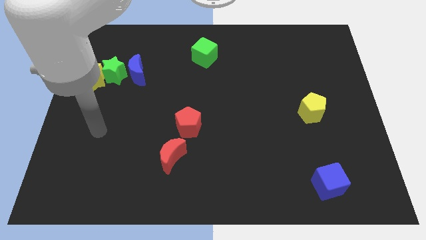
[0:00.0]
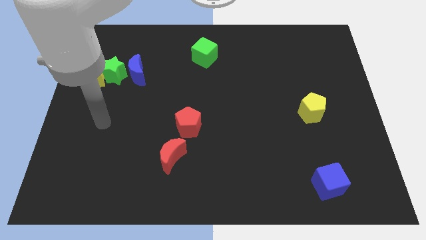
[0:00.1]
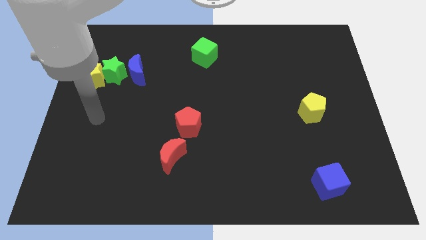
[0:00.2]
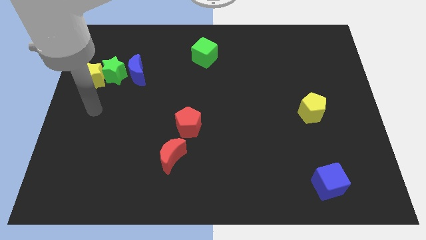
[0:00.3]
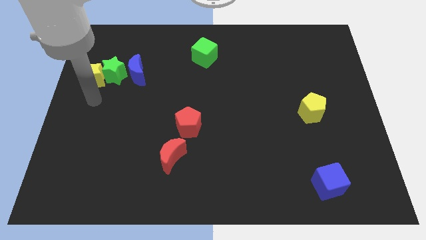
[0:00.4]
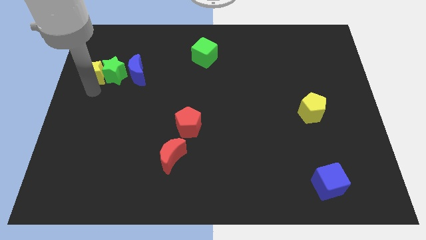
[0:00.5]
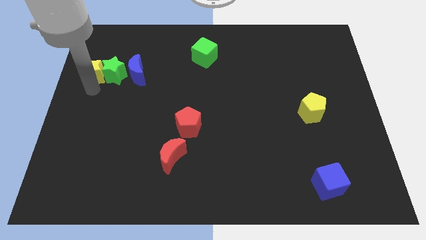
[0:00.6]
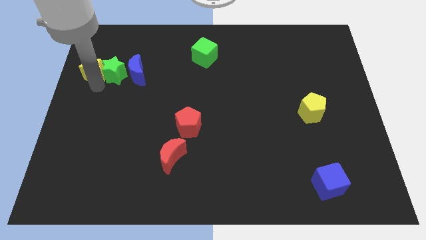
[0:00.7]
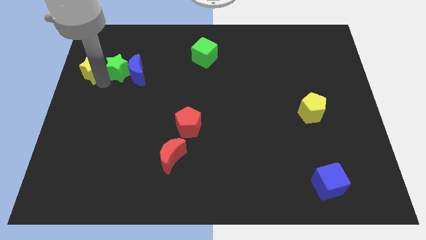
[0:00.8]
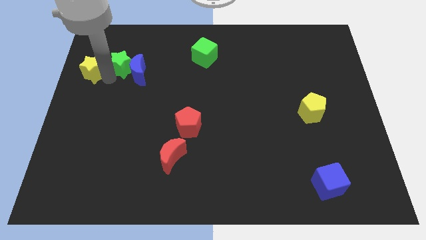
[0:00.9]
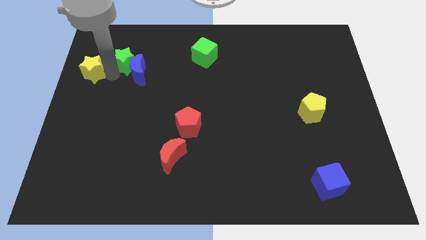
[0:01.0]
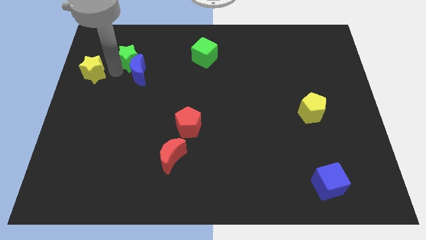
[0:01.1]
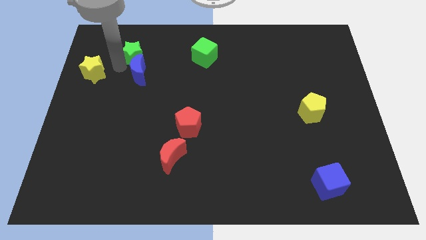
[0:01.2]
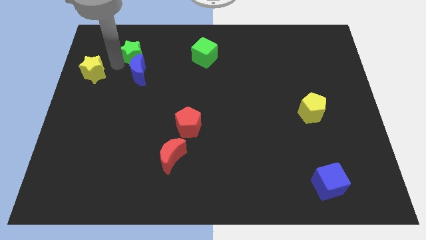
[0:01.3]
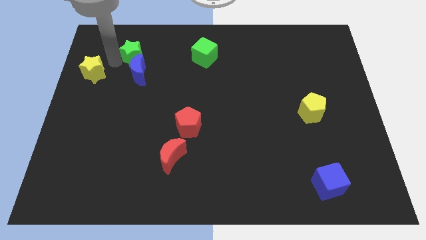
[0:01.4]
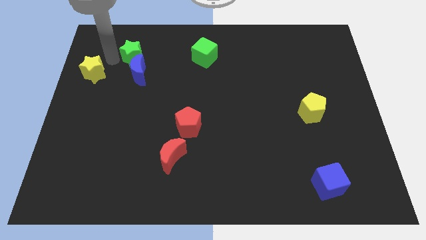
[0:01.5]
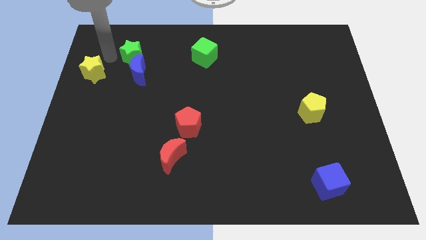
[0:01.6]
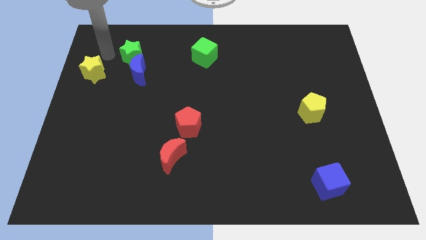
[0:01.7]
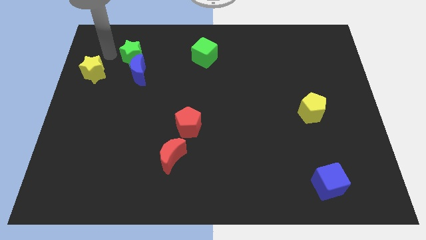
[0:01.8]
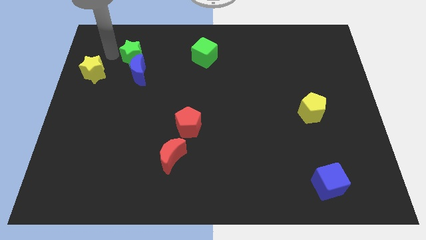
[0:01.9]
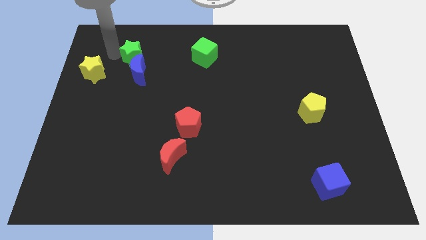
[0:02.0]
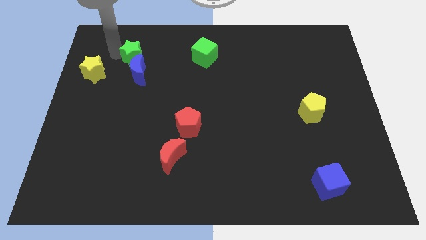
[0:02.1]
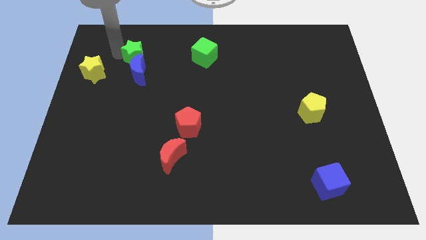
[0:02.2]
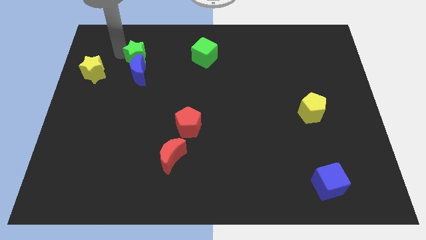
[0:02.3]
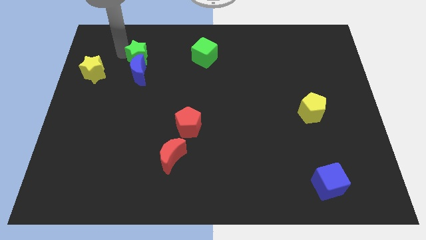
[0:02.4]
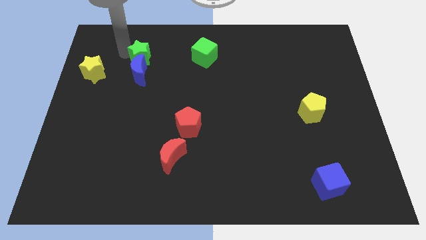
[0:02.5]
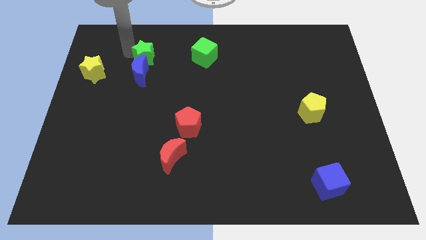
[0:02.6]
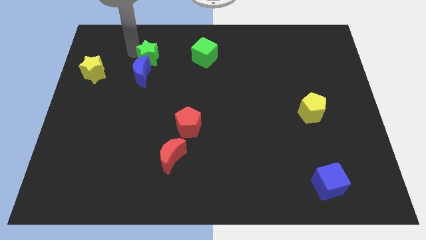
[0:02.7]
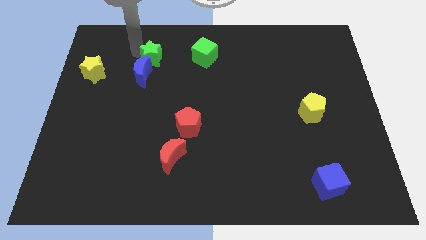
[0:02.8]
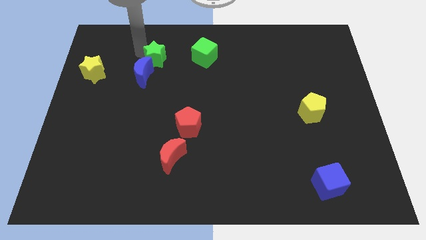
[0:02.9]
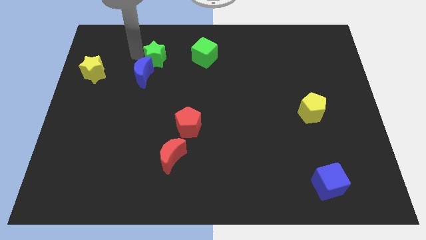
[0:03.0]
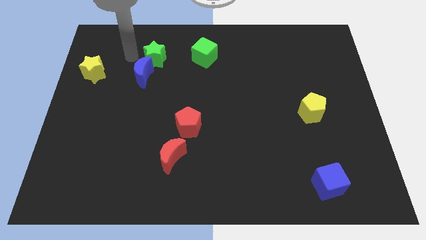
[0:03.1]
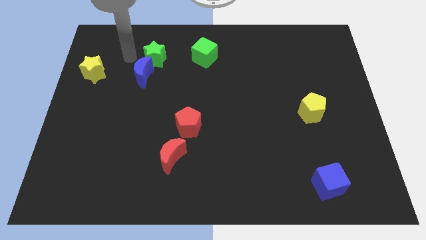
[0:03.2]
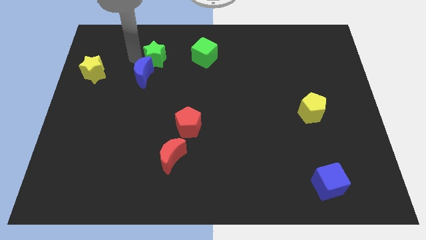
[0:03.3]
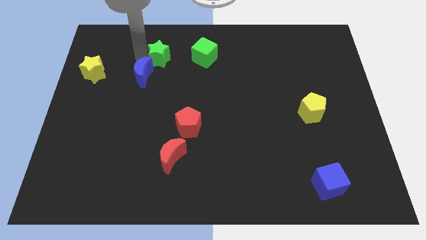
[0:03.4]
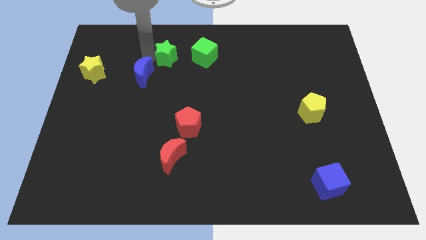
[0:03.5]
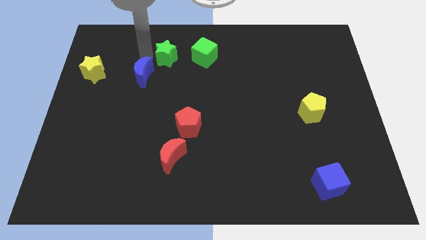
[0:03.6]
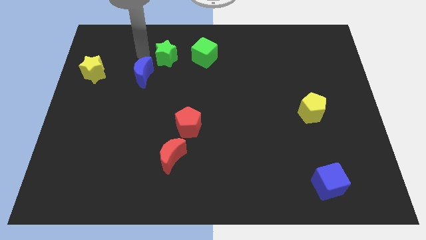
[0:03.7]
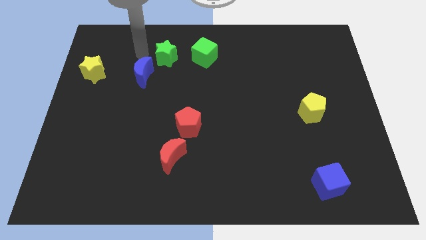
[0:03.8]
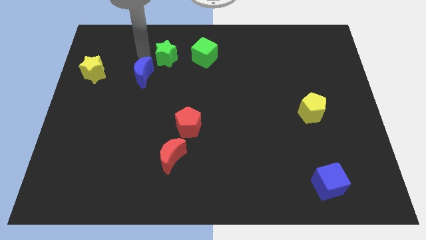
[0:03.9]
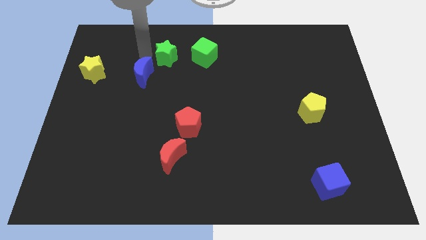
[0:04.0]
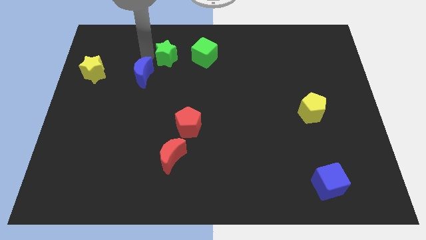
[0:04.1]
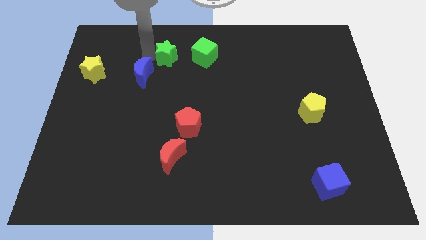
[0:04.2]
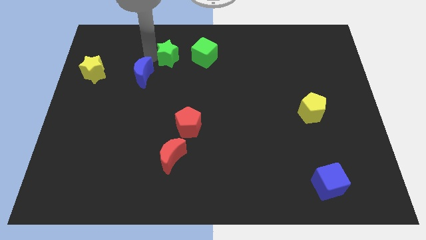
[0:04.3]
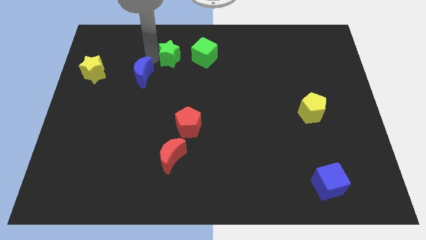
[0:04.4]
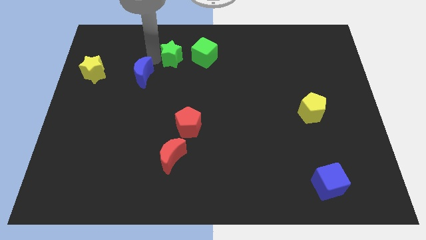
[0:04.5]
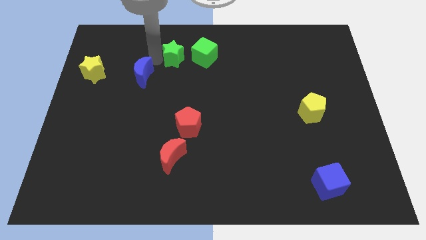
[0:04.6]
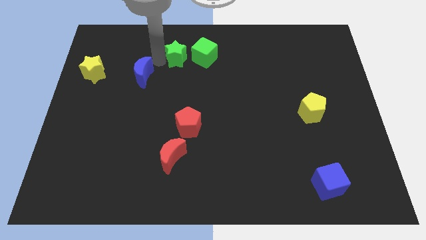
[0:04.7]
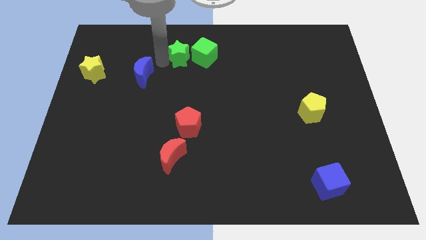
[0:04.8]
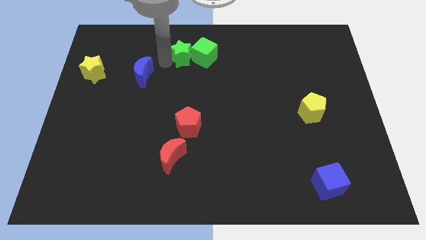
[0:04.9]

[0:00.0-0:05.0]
slide the green star close to the green cube

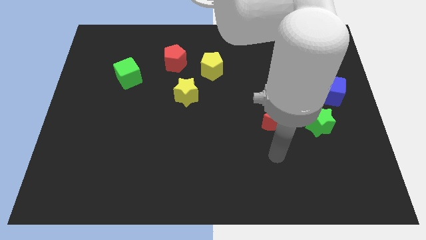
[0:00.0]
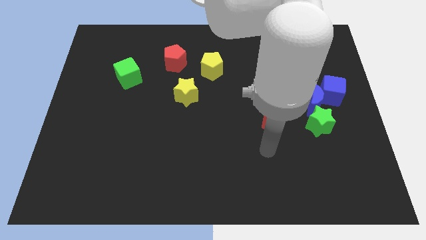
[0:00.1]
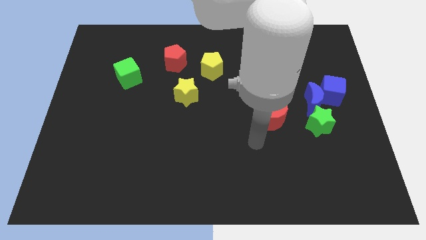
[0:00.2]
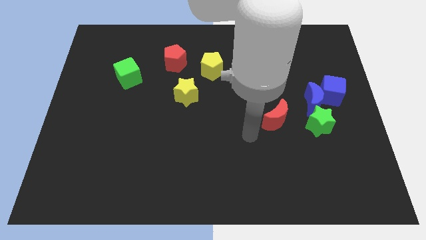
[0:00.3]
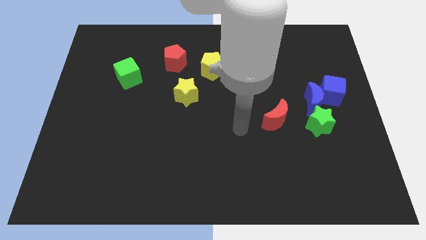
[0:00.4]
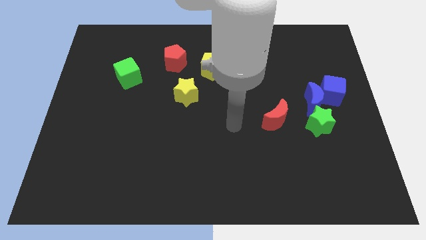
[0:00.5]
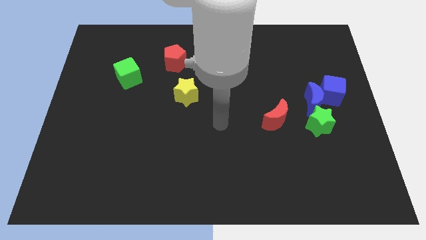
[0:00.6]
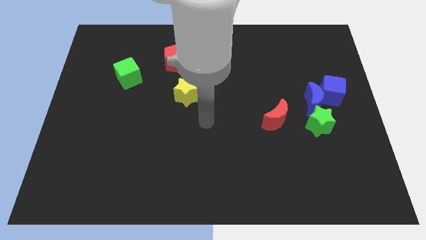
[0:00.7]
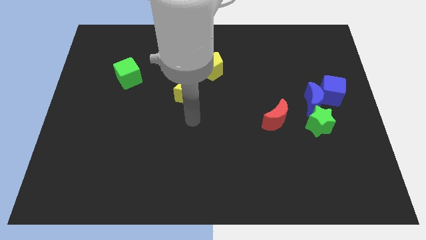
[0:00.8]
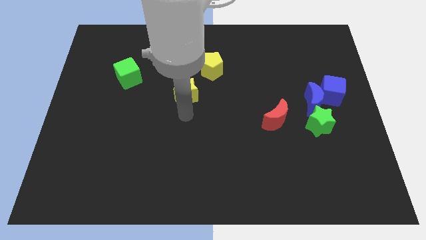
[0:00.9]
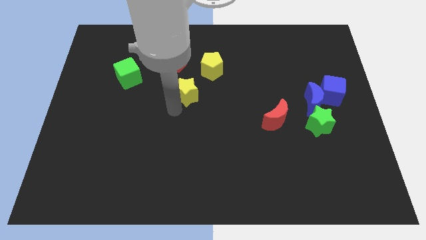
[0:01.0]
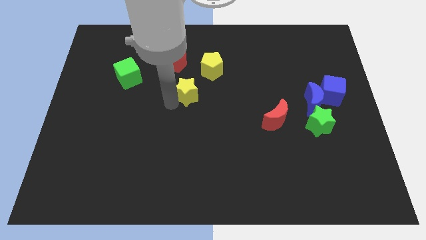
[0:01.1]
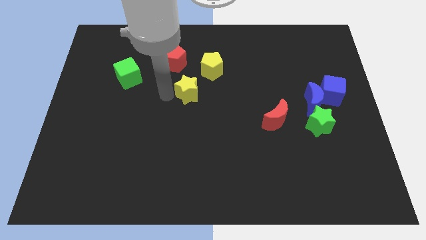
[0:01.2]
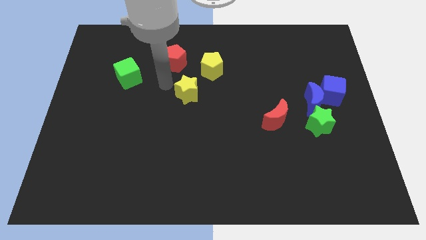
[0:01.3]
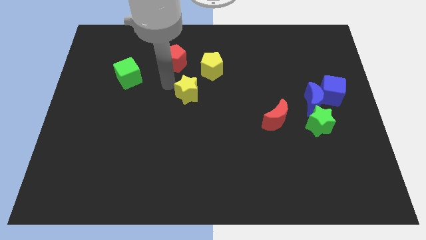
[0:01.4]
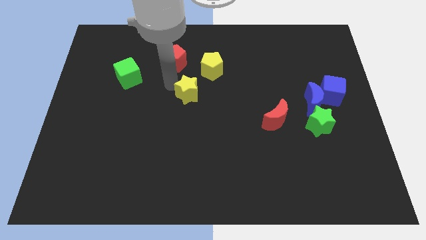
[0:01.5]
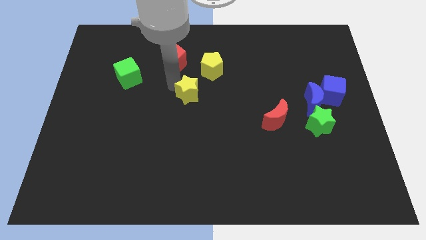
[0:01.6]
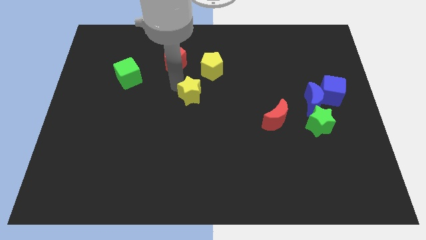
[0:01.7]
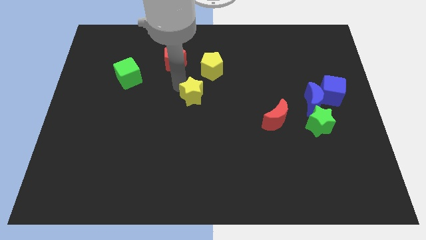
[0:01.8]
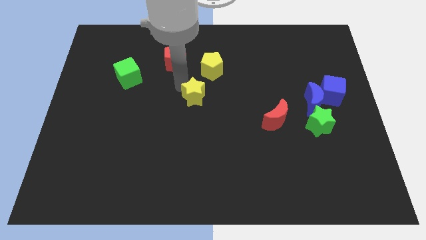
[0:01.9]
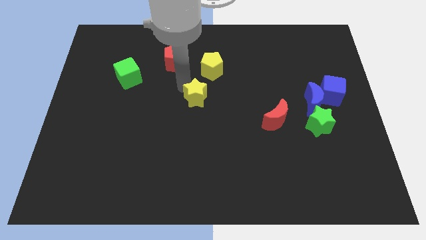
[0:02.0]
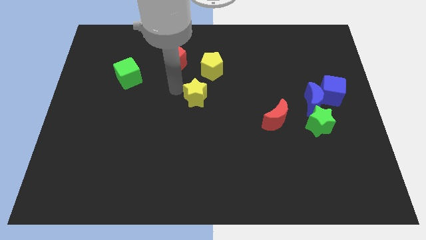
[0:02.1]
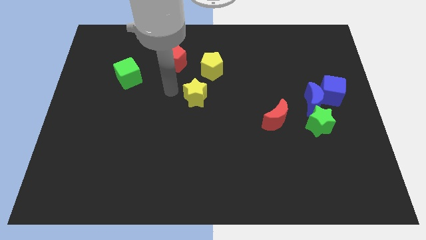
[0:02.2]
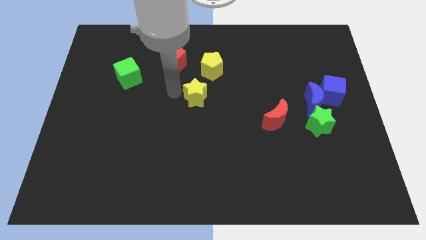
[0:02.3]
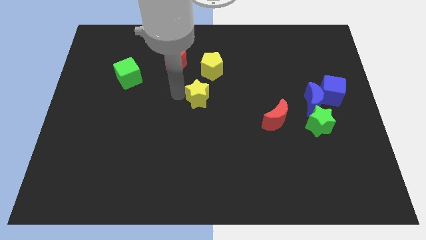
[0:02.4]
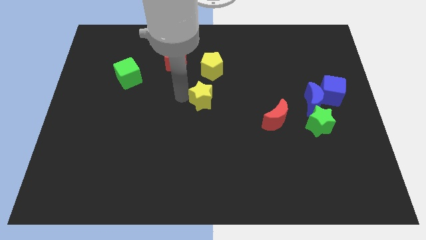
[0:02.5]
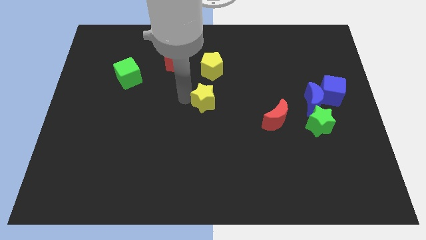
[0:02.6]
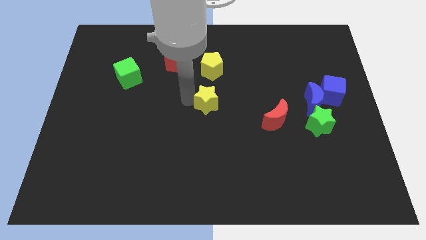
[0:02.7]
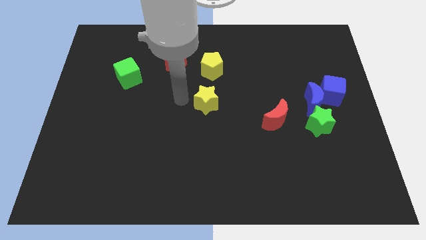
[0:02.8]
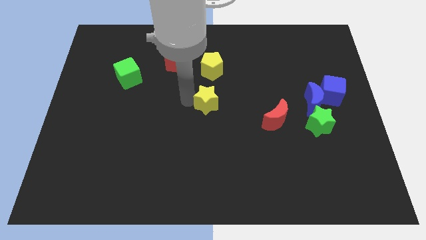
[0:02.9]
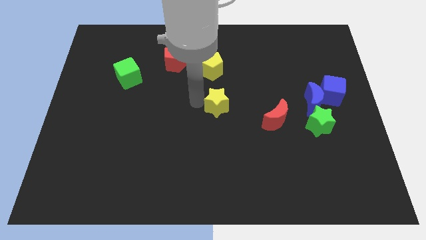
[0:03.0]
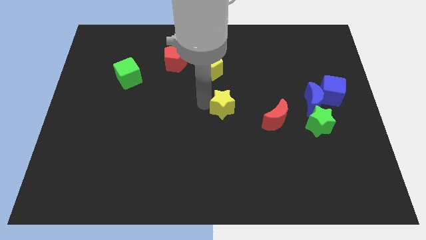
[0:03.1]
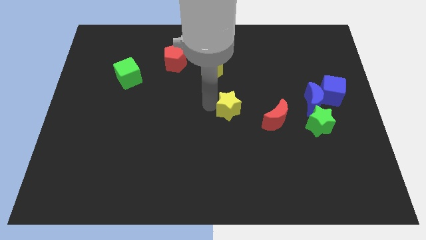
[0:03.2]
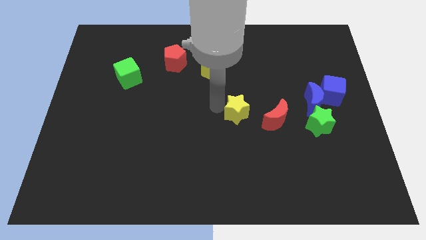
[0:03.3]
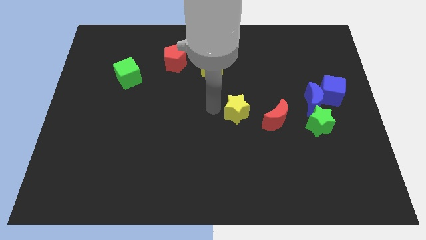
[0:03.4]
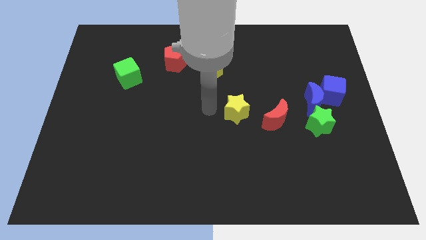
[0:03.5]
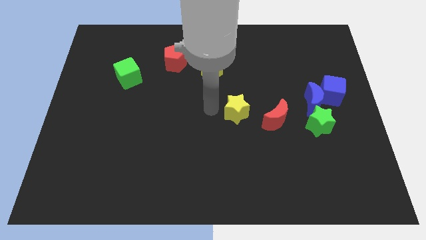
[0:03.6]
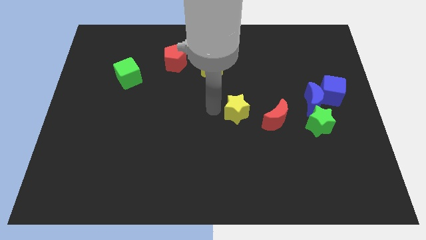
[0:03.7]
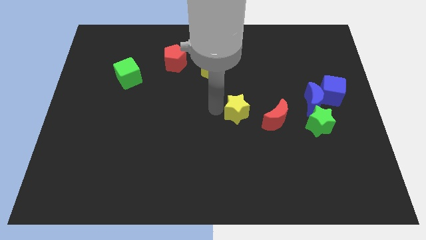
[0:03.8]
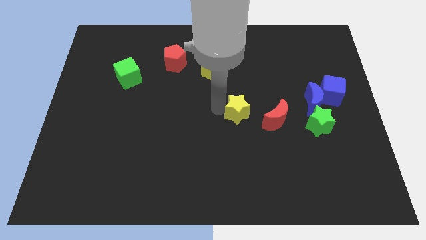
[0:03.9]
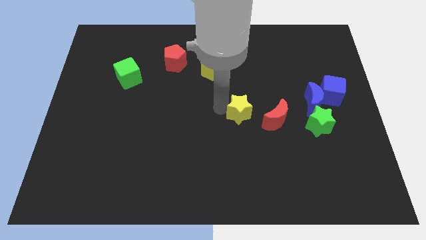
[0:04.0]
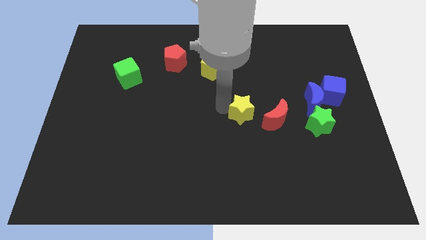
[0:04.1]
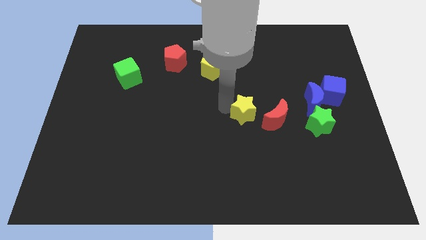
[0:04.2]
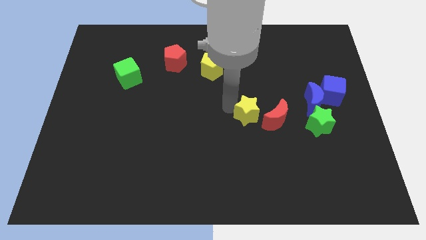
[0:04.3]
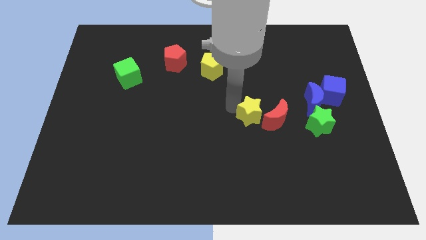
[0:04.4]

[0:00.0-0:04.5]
put the yellow star close to the red moon
